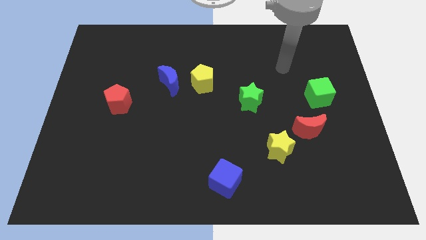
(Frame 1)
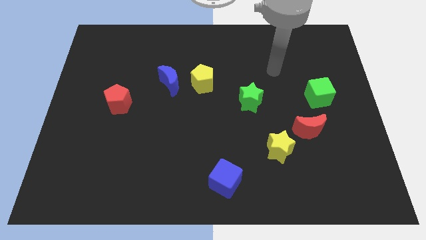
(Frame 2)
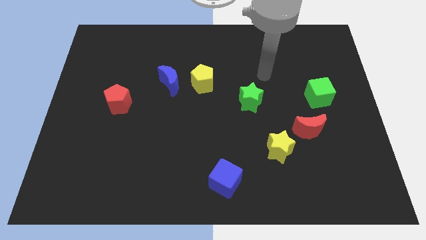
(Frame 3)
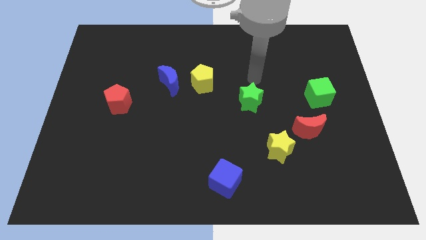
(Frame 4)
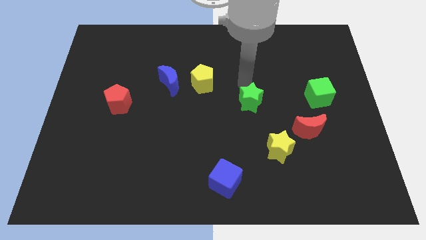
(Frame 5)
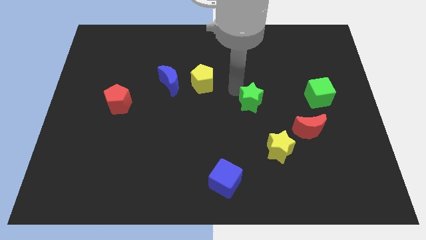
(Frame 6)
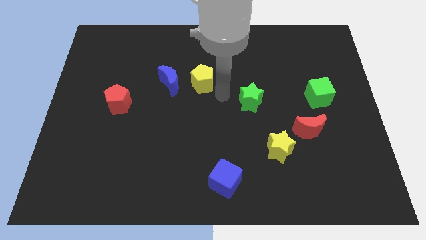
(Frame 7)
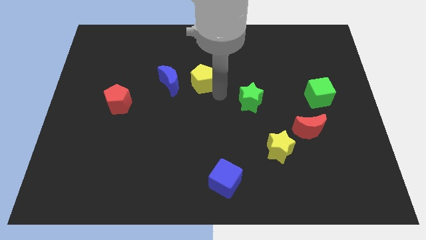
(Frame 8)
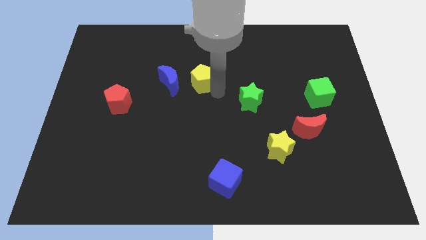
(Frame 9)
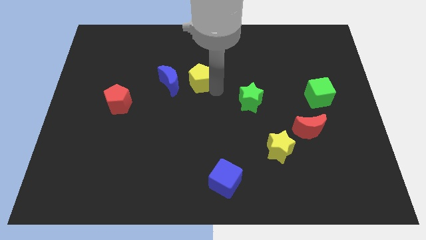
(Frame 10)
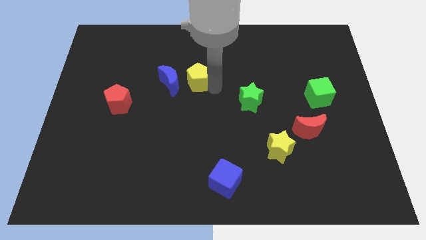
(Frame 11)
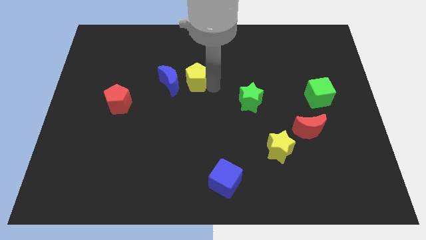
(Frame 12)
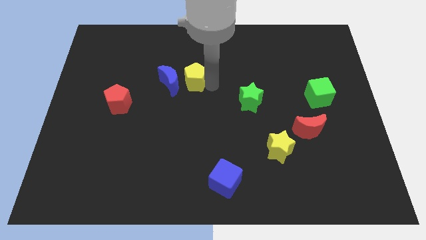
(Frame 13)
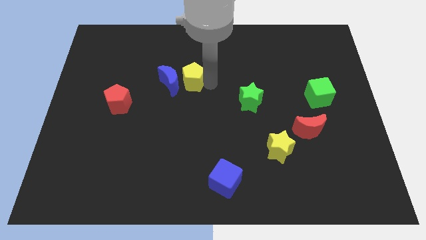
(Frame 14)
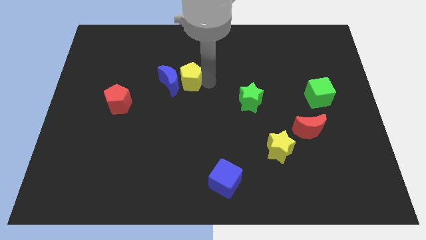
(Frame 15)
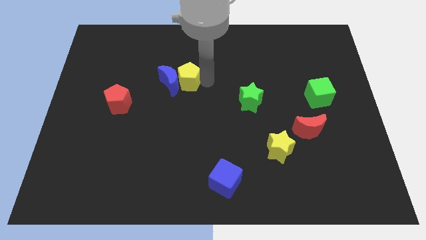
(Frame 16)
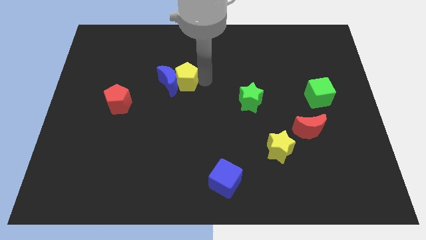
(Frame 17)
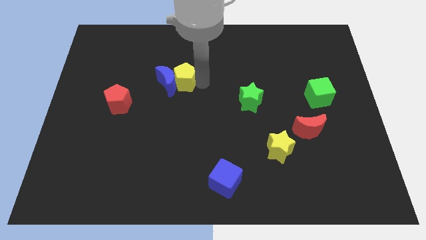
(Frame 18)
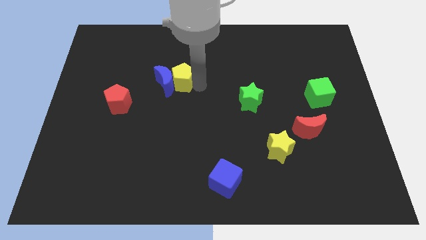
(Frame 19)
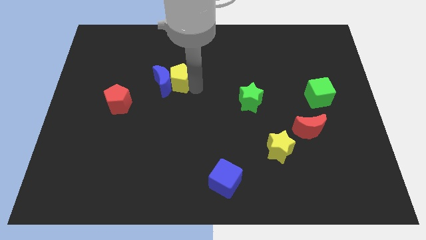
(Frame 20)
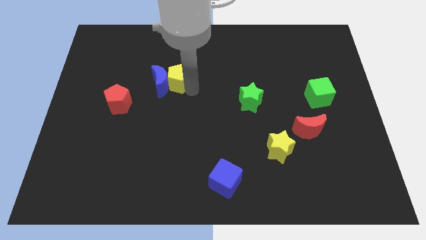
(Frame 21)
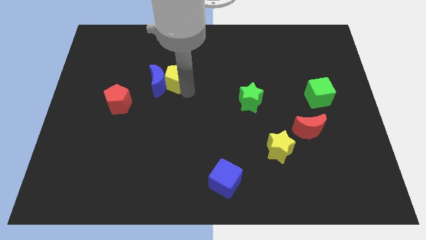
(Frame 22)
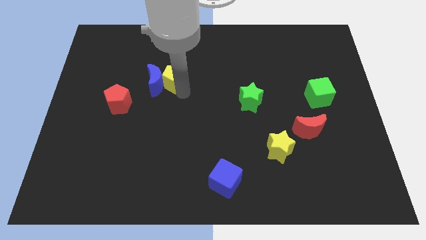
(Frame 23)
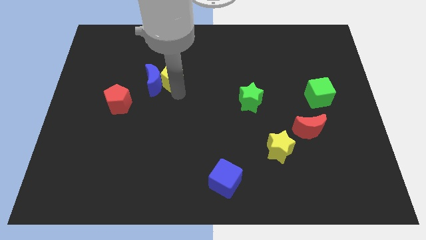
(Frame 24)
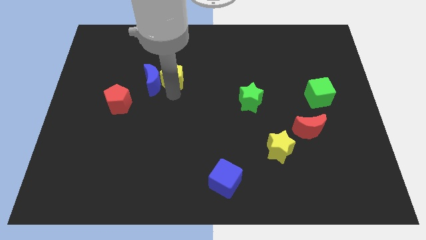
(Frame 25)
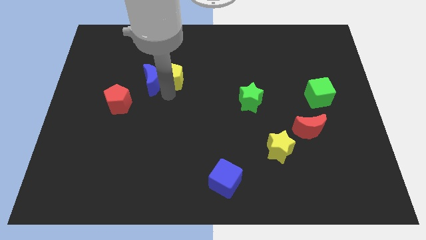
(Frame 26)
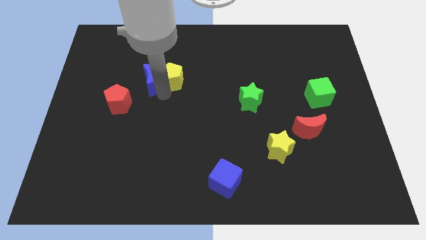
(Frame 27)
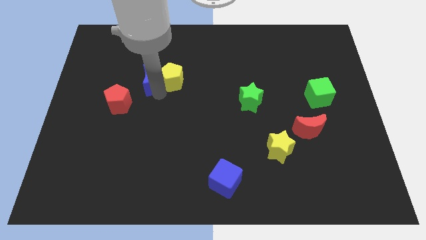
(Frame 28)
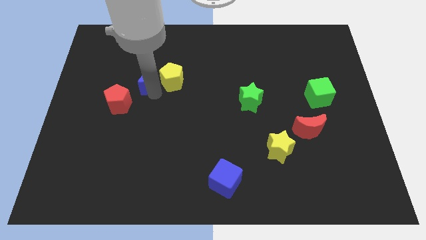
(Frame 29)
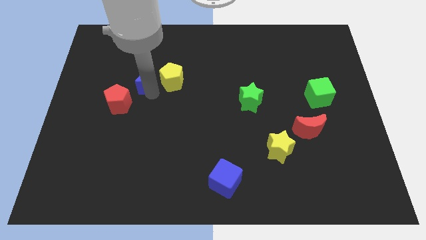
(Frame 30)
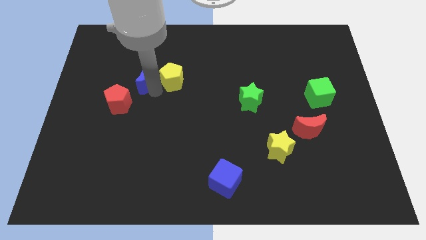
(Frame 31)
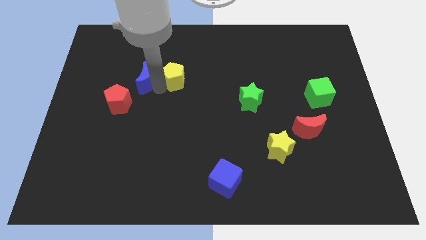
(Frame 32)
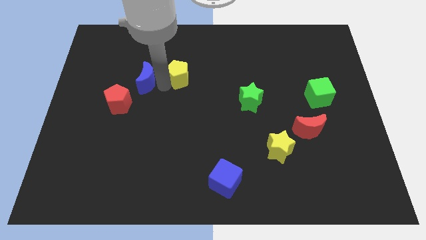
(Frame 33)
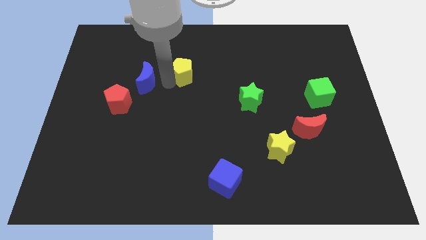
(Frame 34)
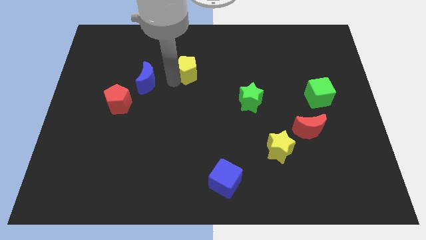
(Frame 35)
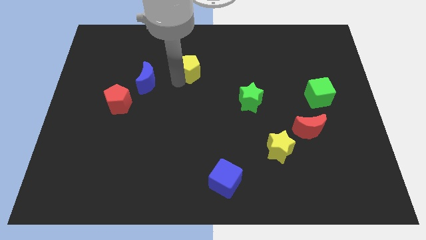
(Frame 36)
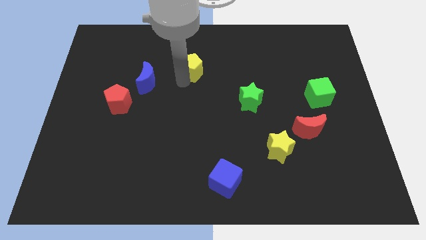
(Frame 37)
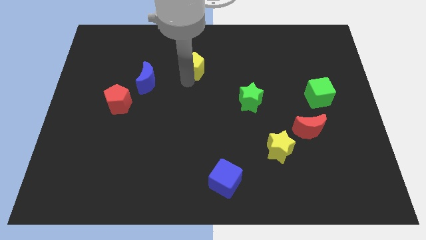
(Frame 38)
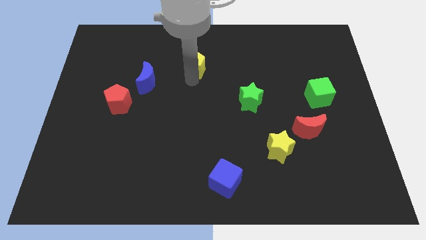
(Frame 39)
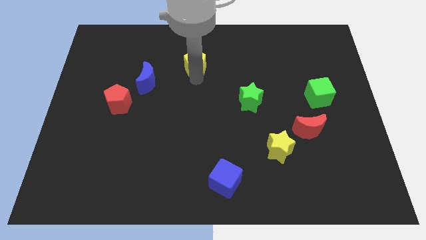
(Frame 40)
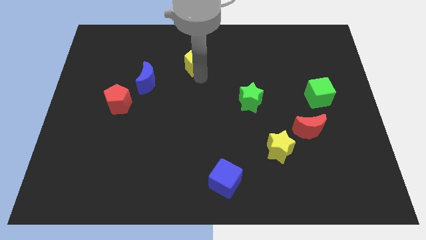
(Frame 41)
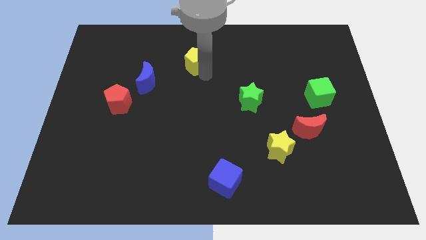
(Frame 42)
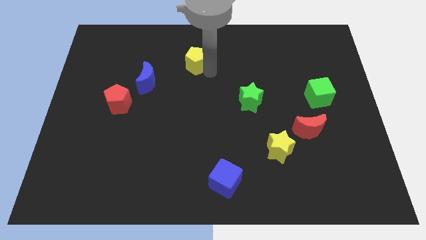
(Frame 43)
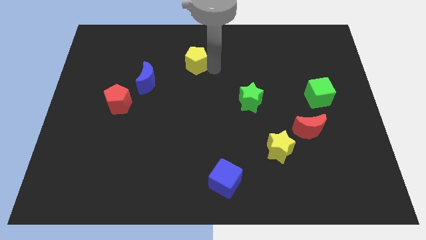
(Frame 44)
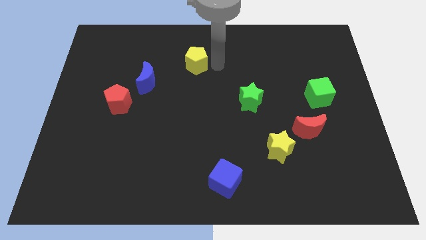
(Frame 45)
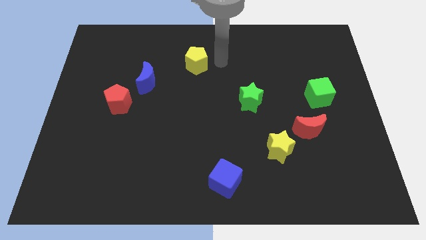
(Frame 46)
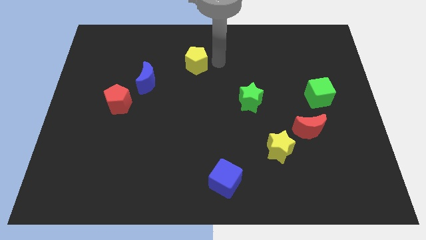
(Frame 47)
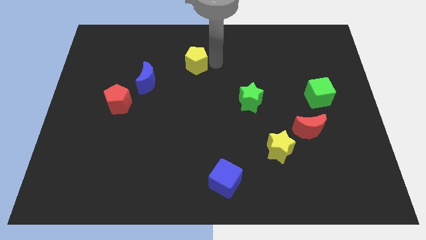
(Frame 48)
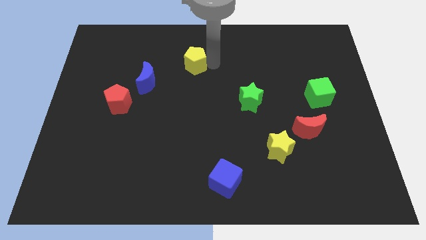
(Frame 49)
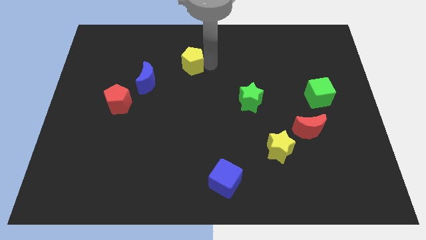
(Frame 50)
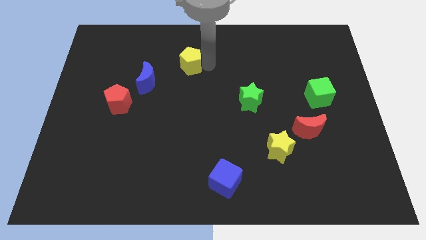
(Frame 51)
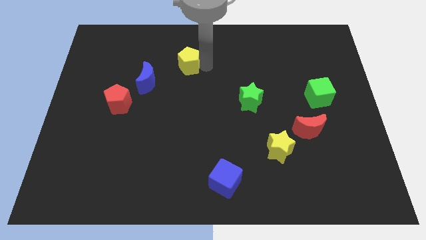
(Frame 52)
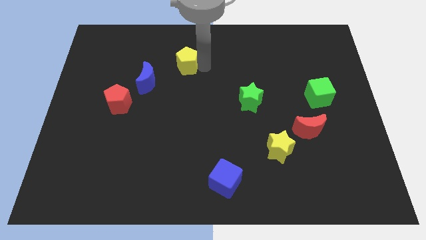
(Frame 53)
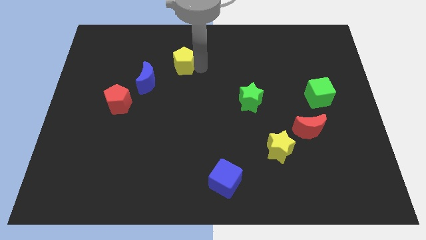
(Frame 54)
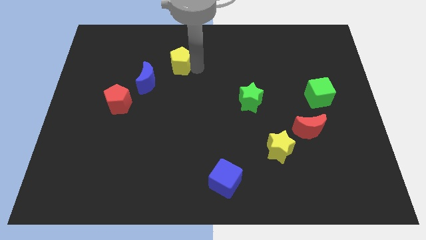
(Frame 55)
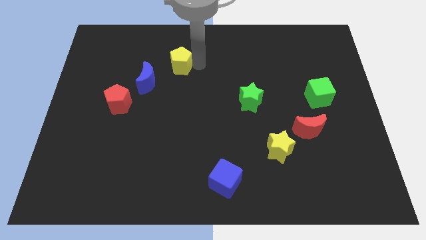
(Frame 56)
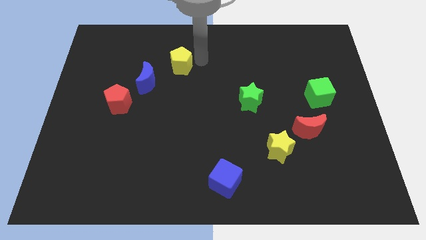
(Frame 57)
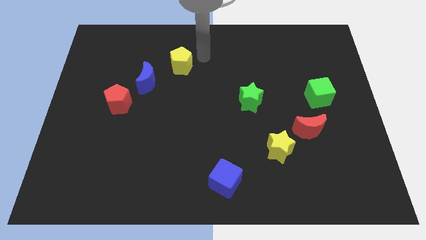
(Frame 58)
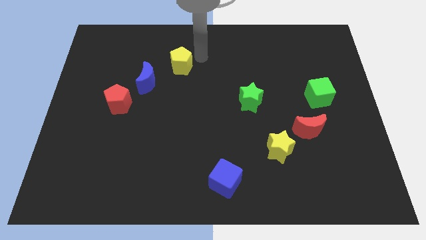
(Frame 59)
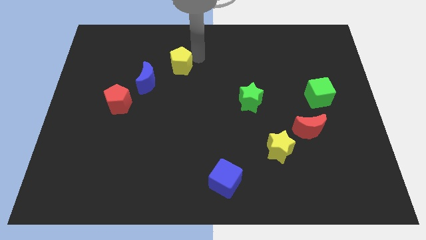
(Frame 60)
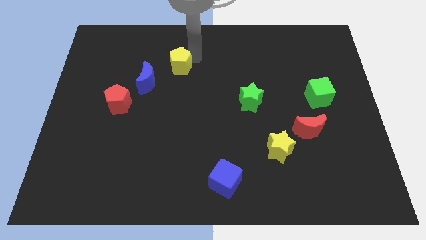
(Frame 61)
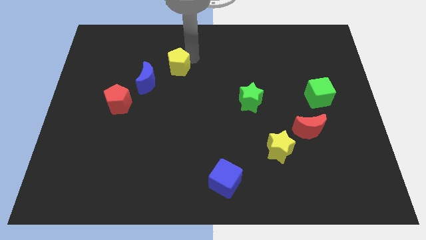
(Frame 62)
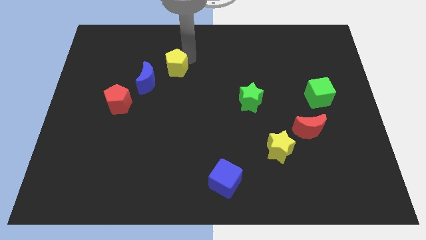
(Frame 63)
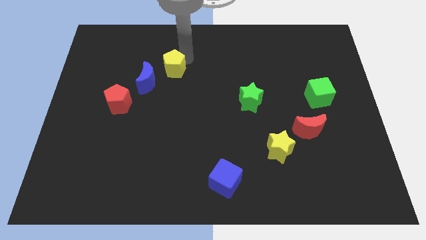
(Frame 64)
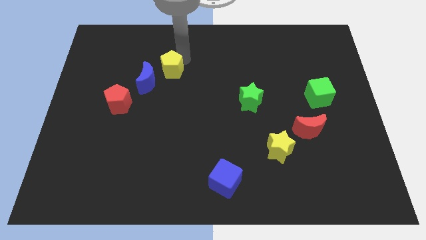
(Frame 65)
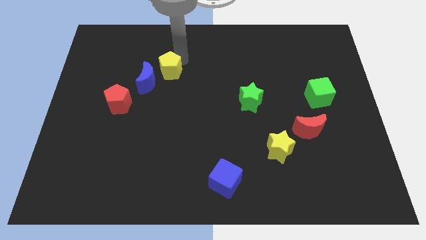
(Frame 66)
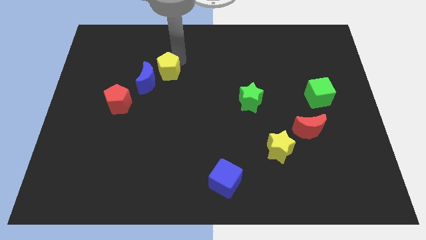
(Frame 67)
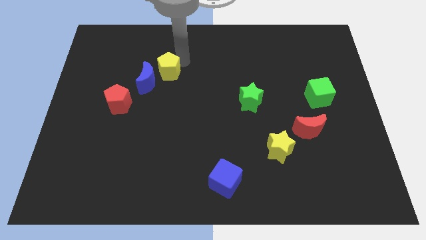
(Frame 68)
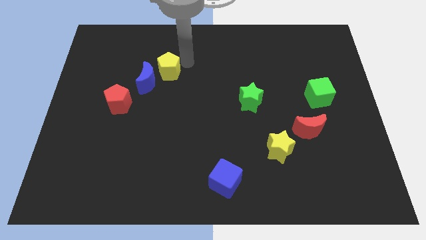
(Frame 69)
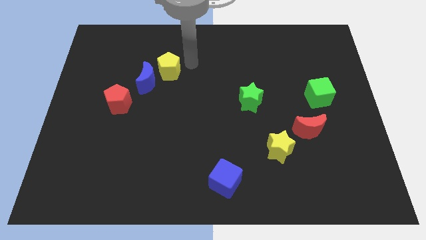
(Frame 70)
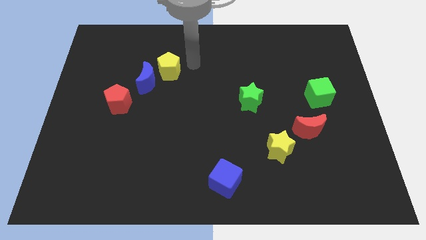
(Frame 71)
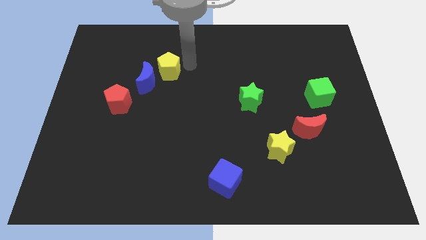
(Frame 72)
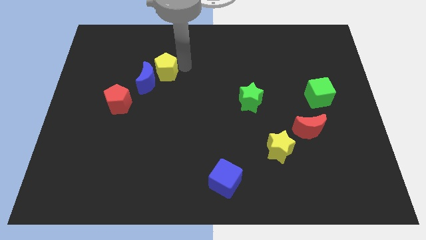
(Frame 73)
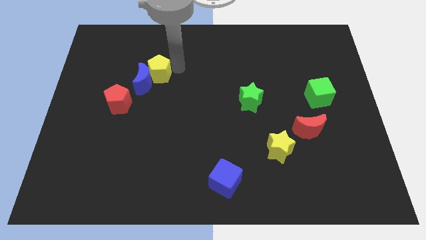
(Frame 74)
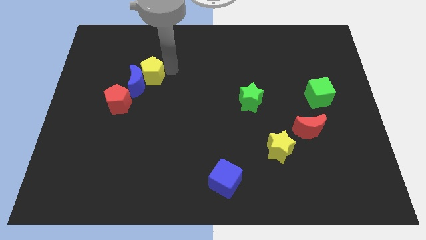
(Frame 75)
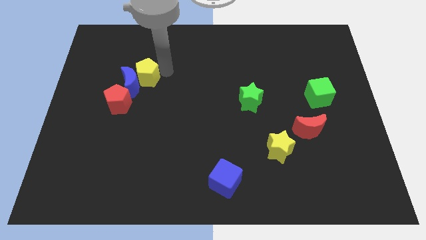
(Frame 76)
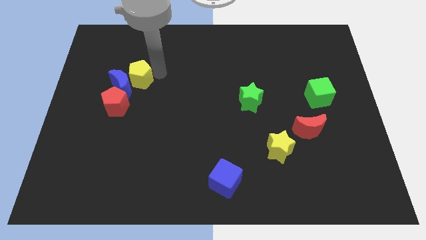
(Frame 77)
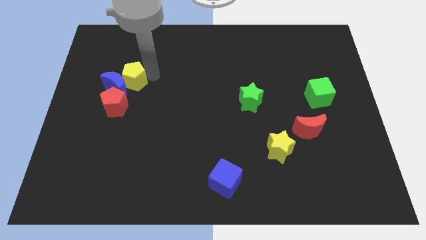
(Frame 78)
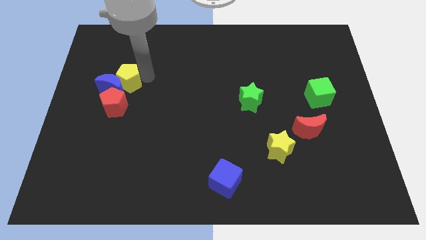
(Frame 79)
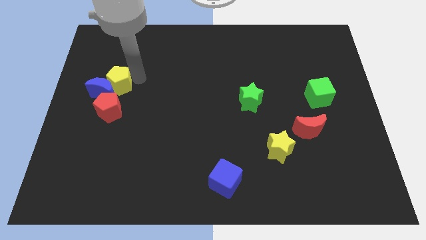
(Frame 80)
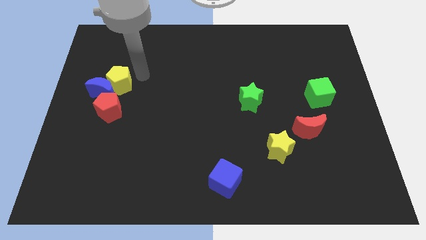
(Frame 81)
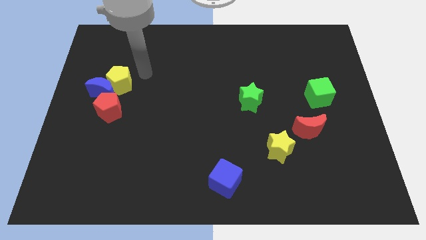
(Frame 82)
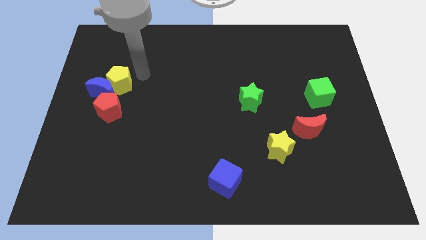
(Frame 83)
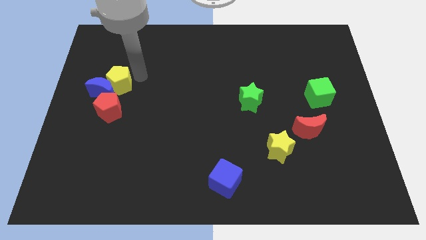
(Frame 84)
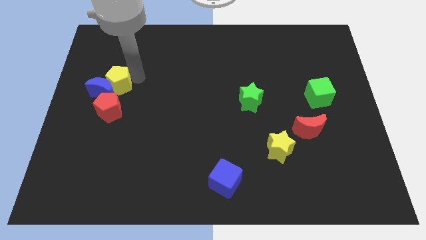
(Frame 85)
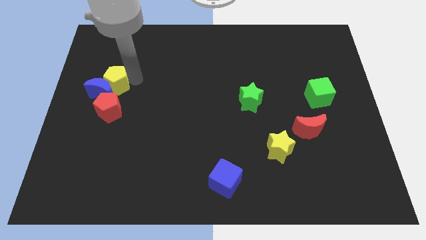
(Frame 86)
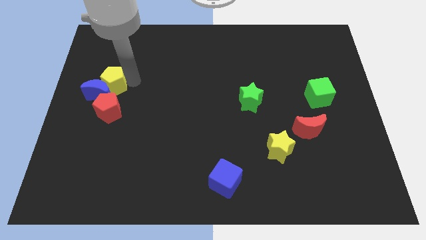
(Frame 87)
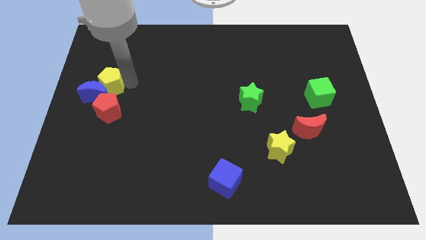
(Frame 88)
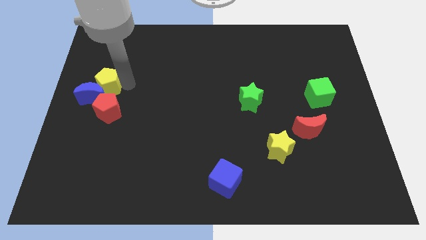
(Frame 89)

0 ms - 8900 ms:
slide the yellow pentagon diagonally up and to the left of the red pentagon
